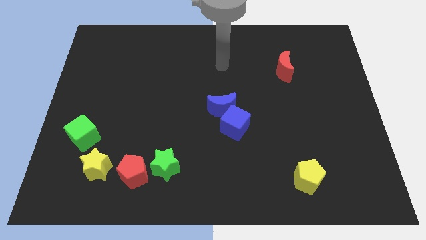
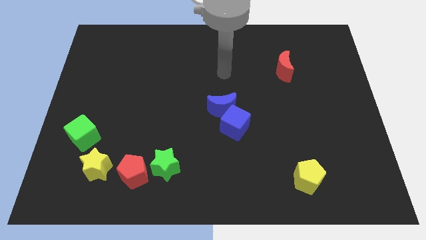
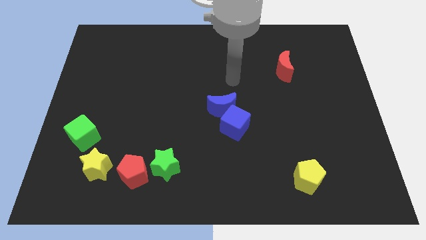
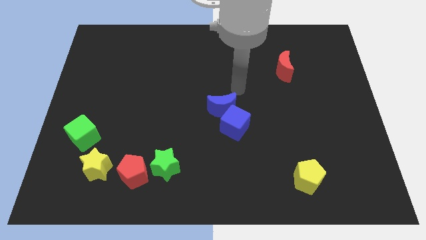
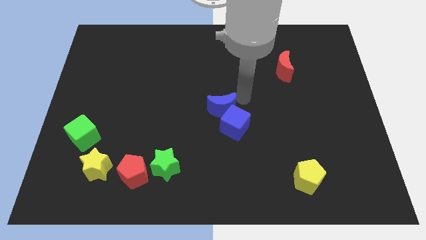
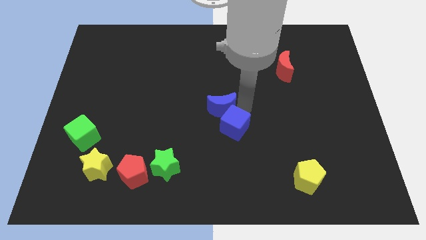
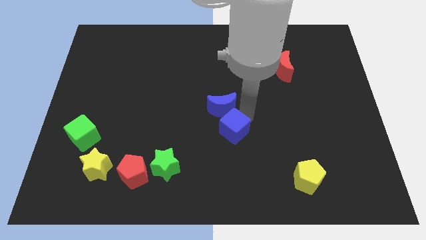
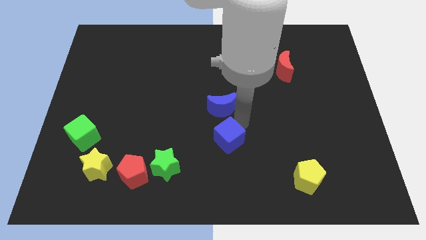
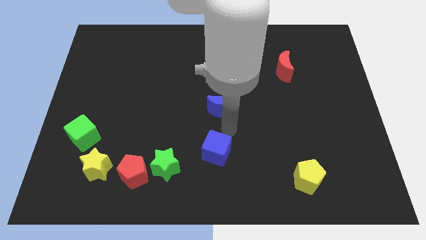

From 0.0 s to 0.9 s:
move the blue moon away from the blue cube

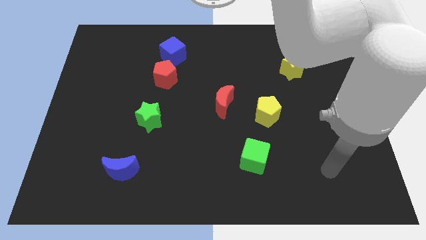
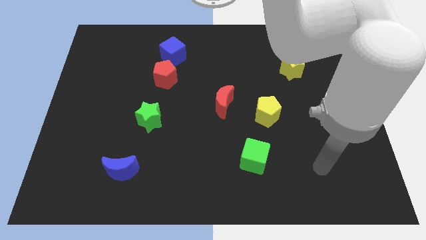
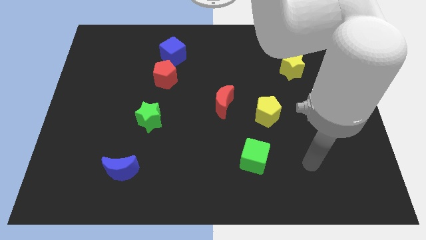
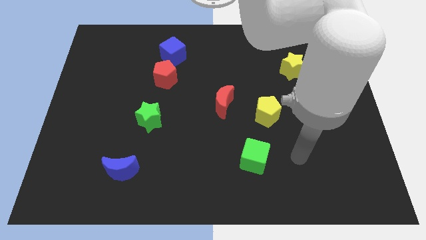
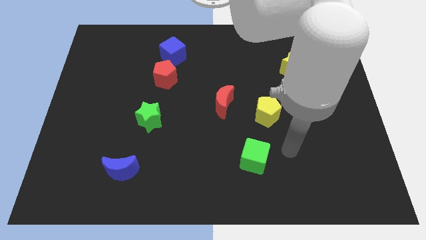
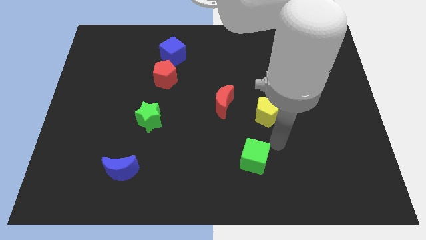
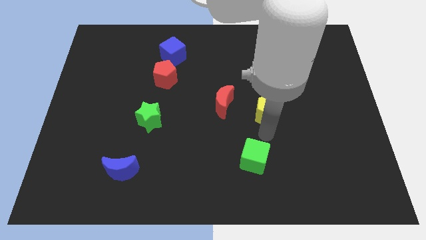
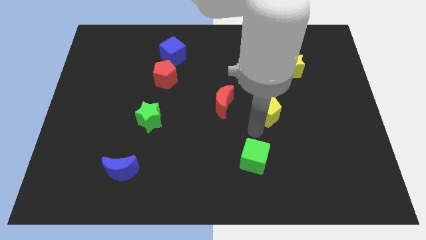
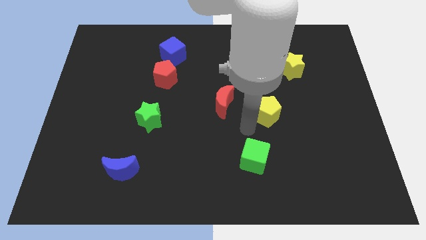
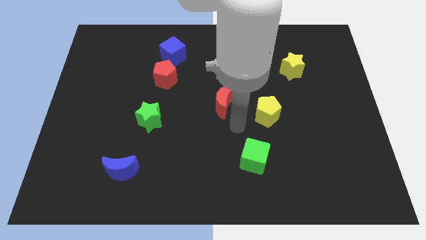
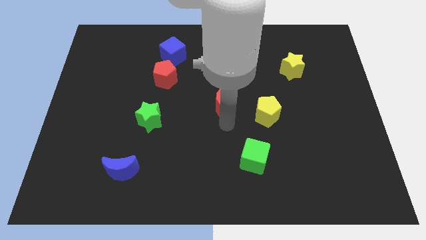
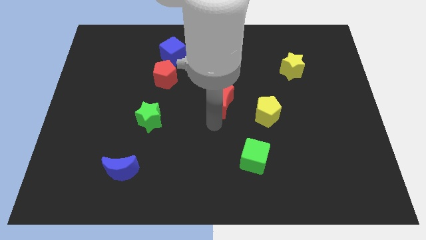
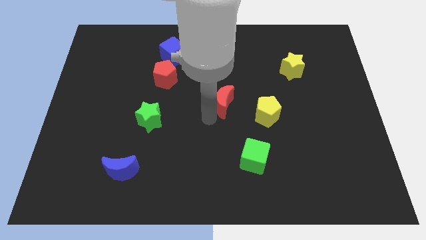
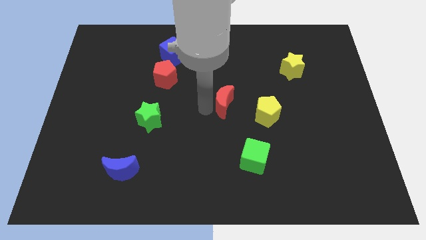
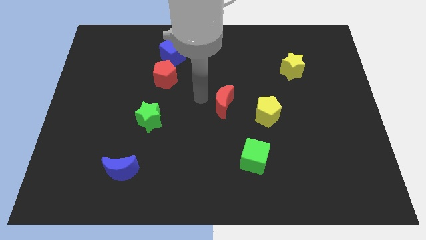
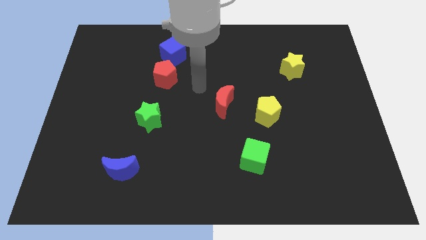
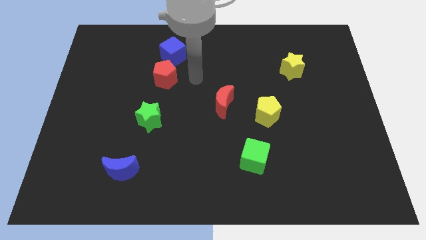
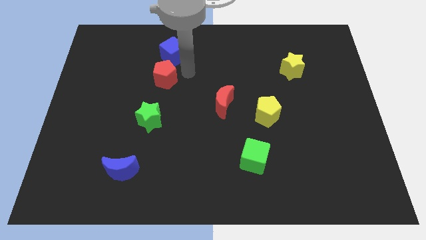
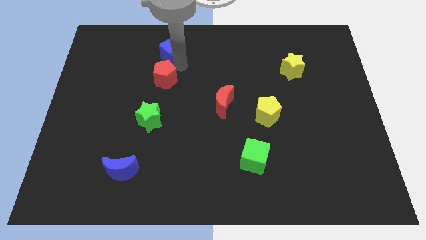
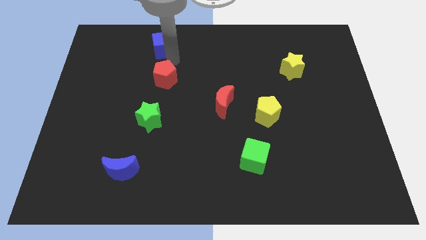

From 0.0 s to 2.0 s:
move the red pentagon away from the blue cube

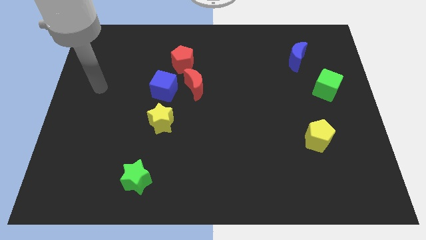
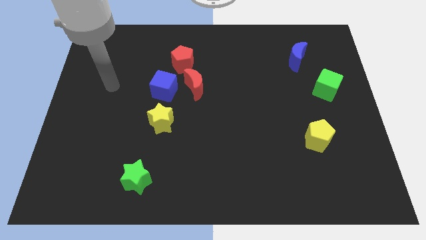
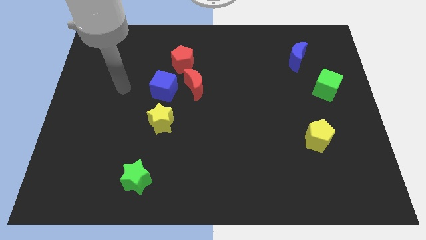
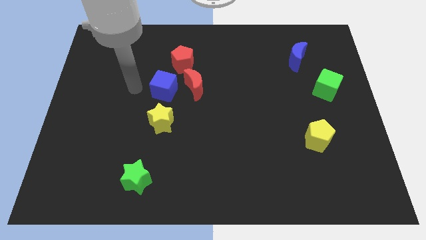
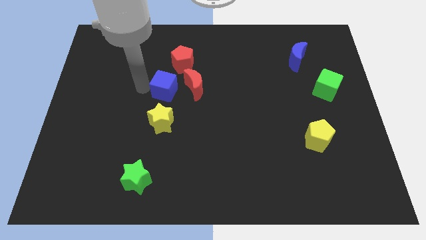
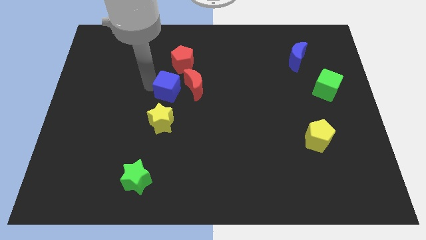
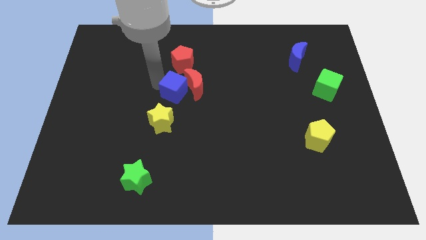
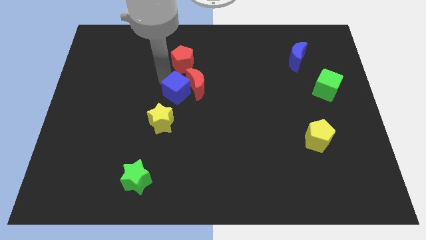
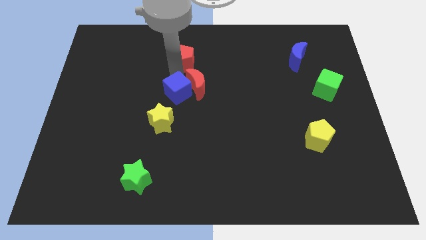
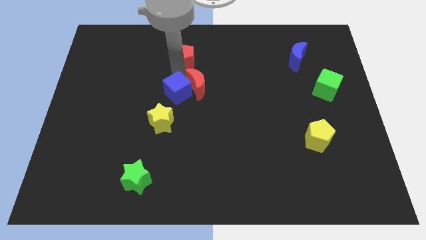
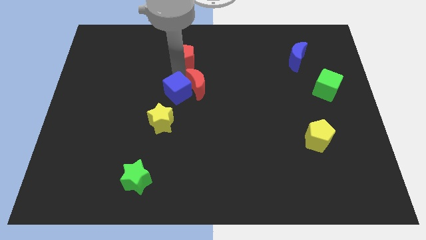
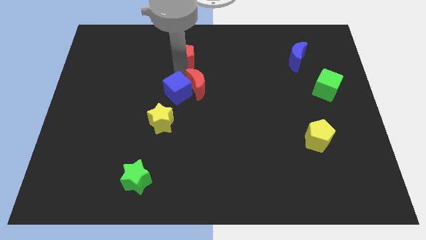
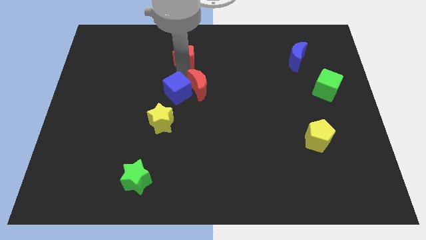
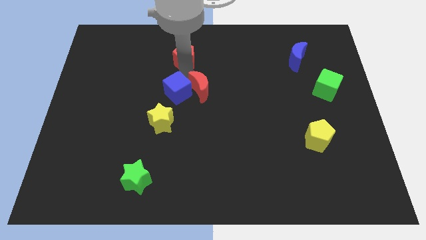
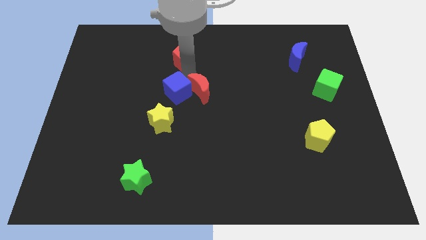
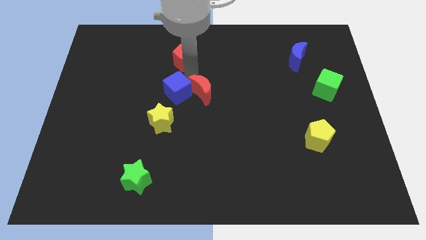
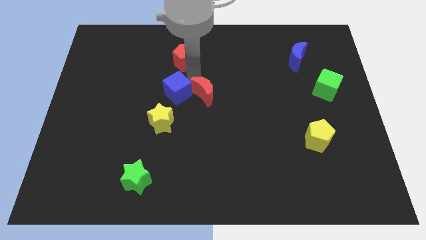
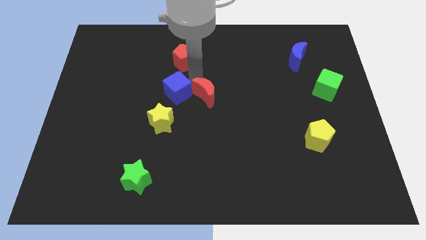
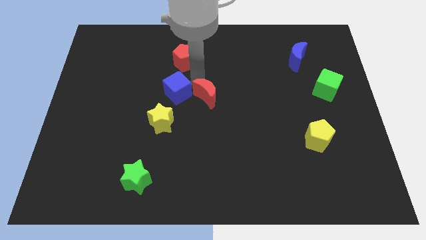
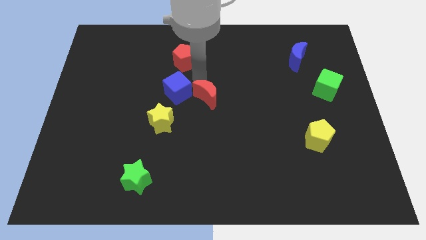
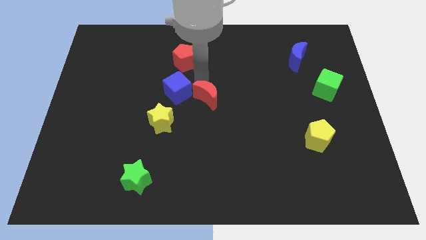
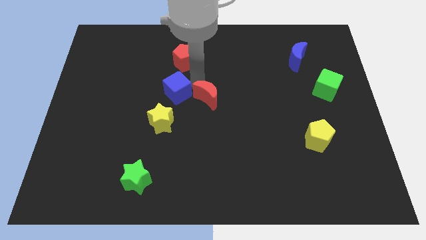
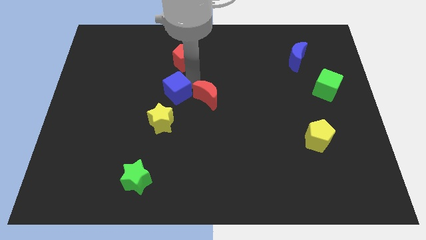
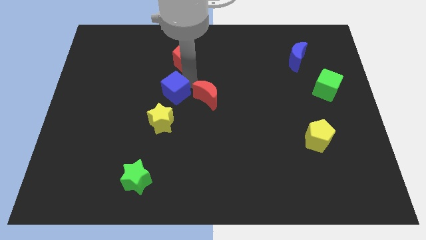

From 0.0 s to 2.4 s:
move the red moon away from the blue cube and red pentagon

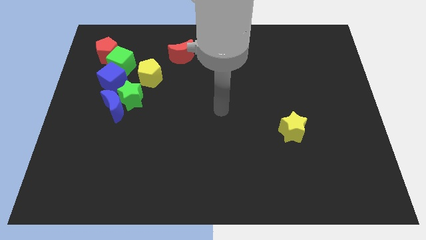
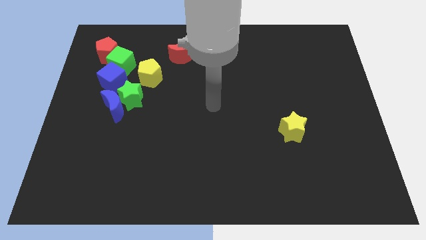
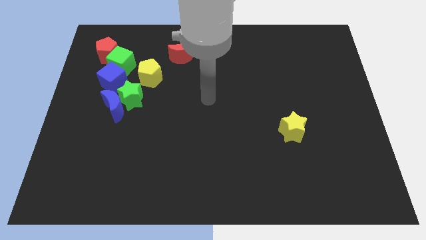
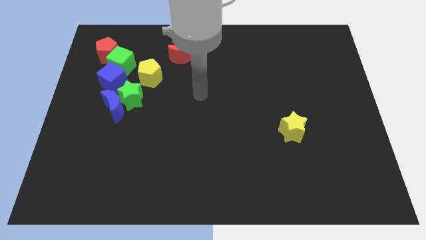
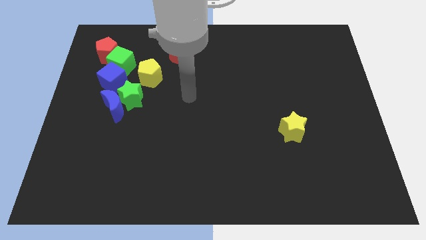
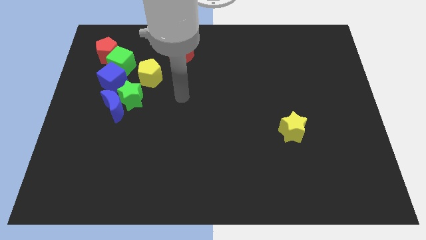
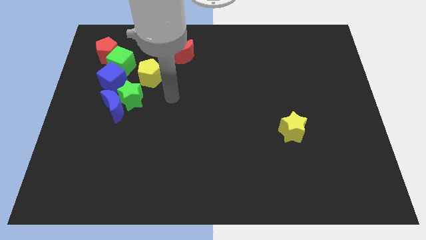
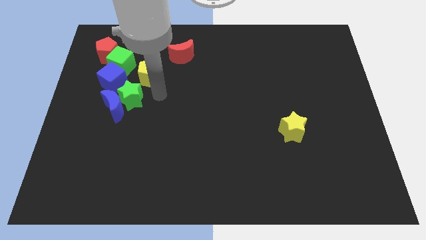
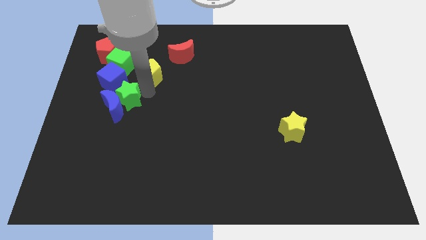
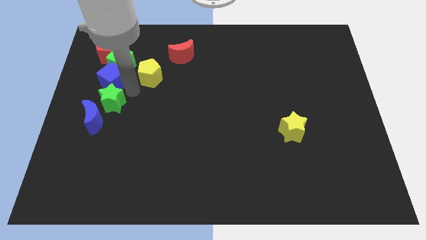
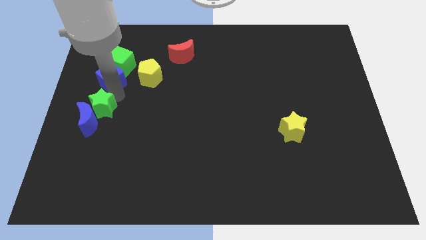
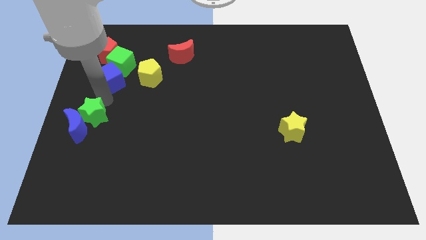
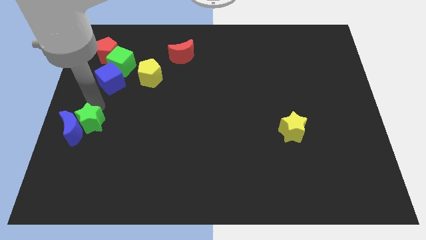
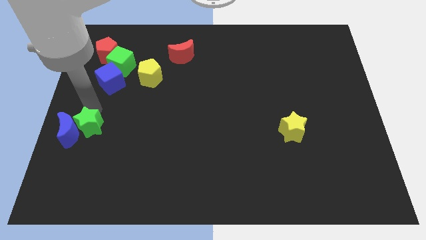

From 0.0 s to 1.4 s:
move the blue moon away from the green star and blue cube

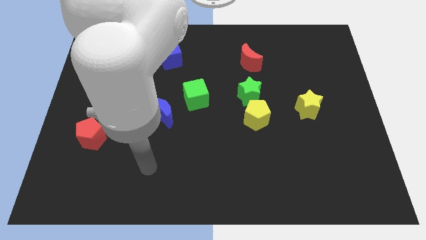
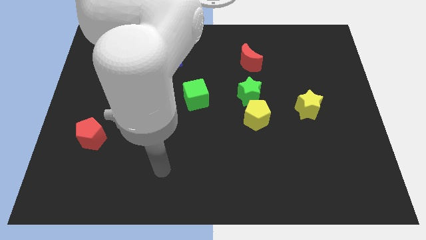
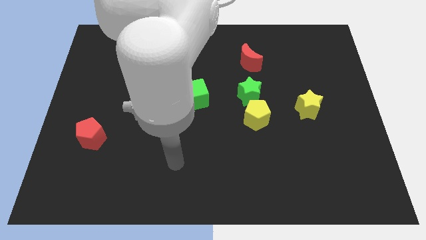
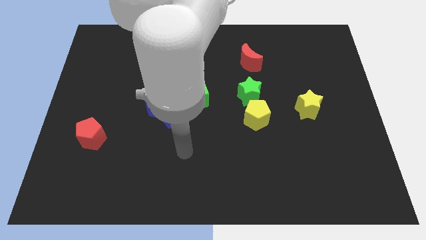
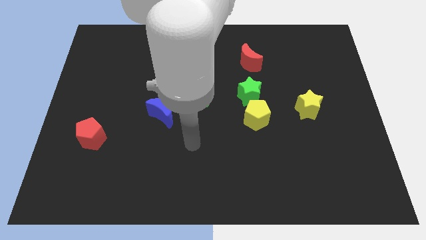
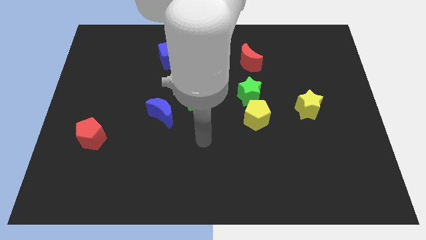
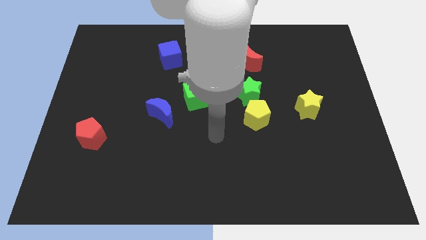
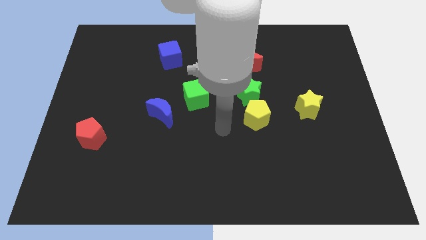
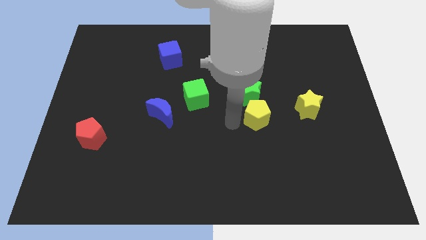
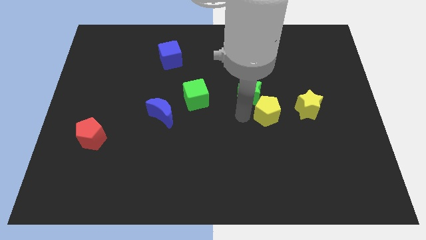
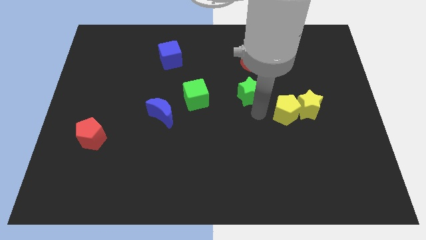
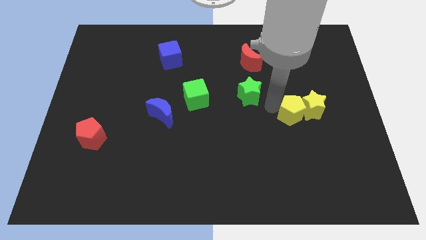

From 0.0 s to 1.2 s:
pull the green star apart from the yellow pentagon

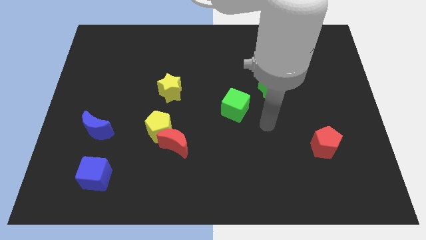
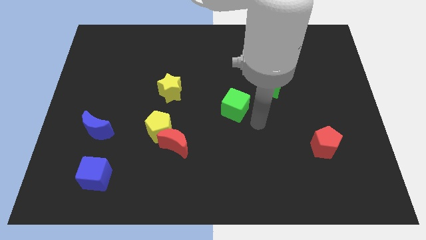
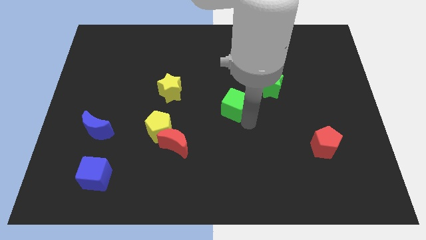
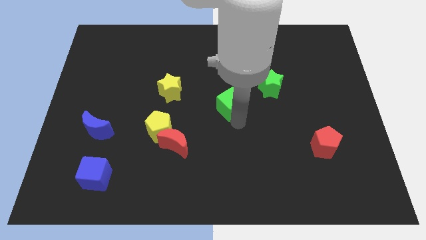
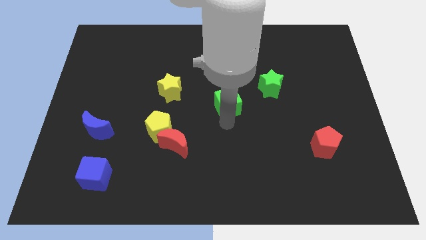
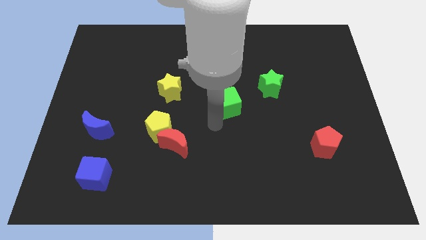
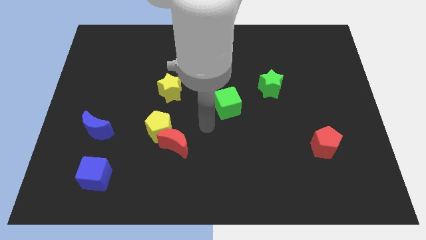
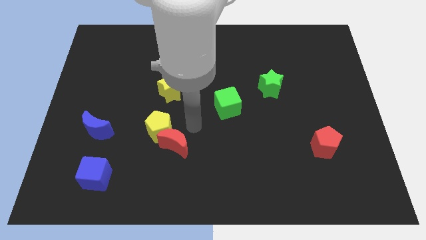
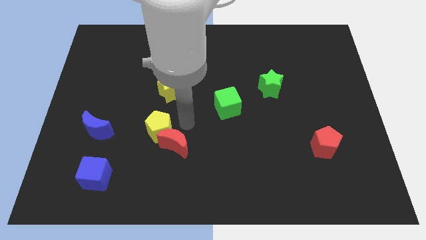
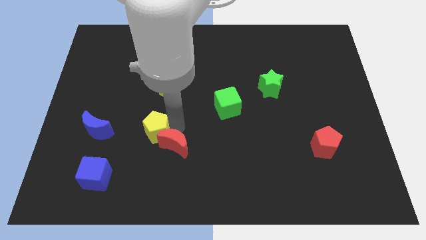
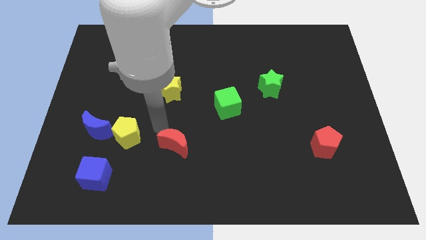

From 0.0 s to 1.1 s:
pull the red moon apart from the yellow pentagon

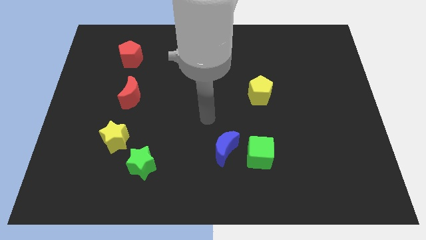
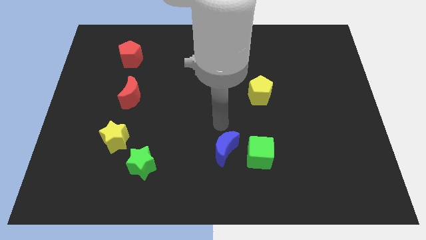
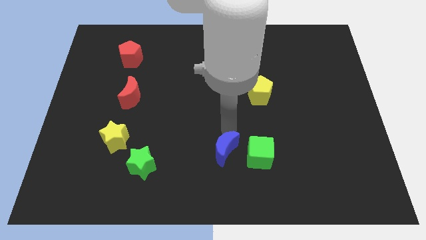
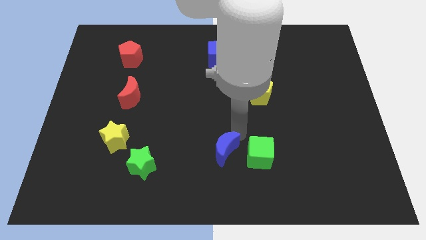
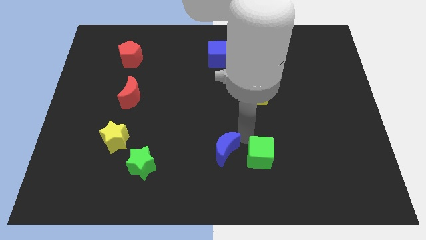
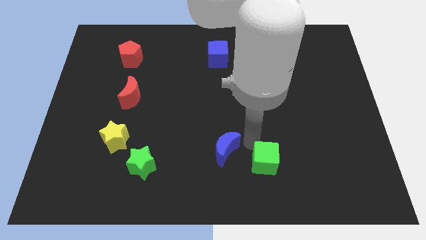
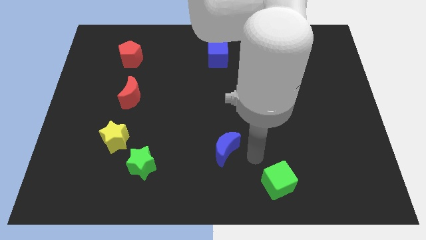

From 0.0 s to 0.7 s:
pull the blue moon apart from the green cube
